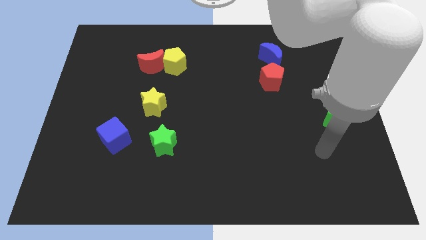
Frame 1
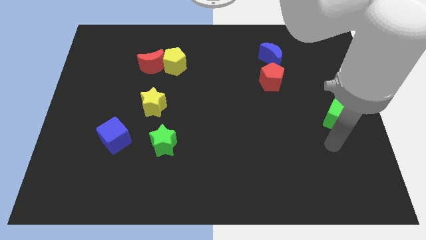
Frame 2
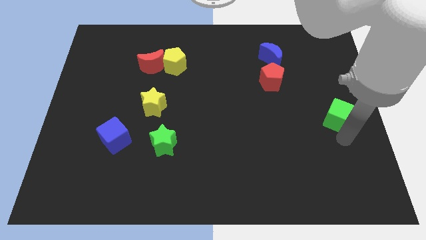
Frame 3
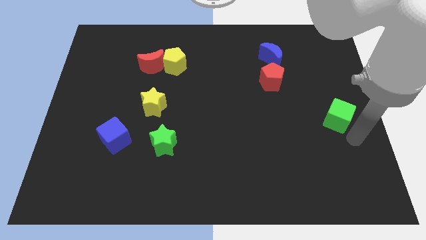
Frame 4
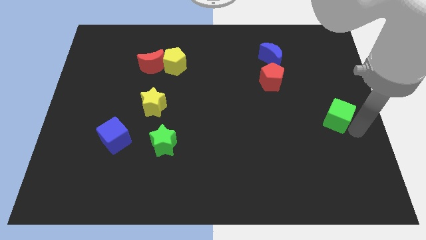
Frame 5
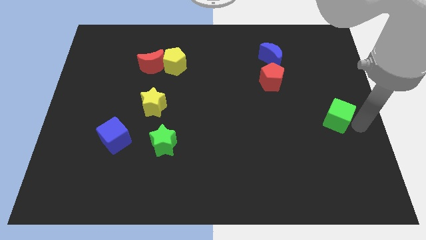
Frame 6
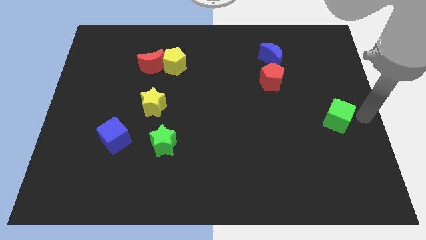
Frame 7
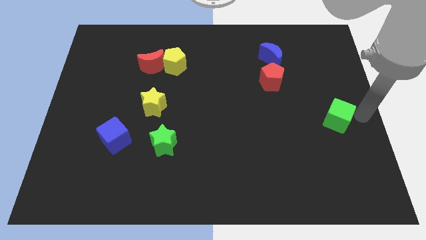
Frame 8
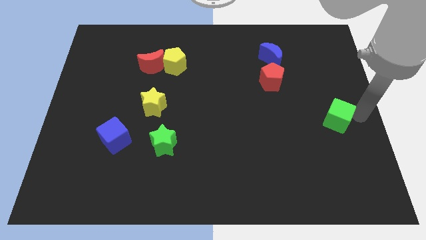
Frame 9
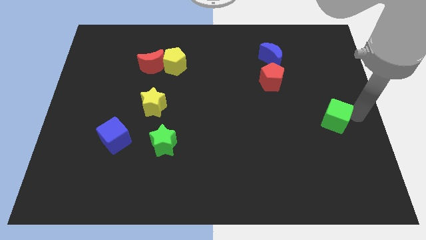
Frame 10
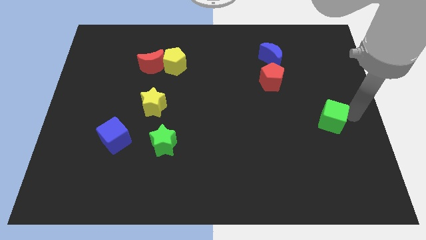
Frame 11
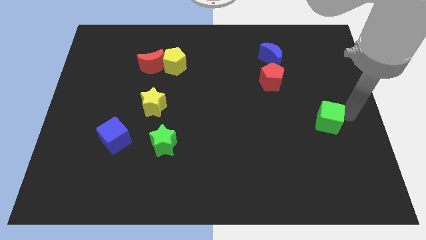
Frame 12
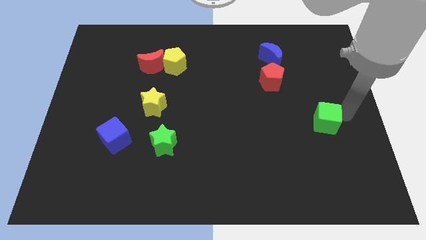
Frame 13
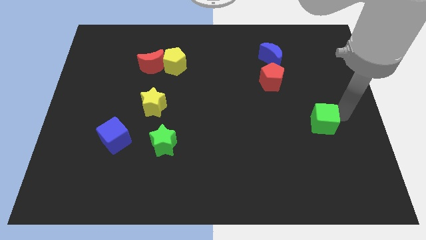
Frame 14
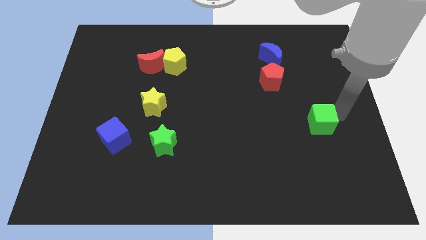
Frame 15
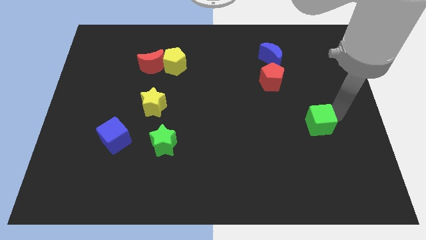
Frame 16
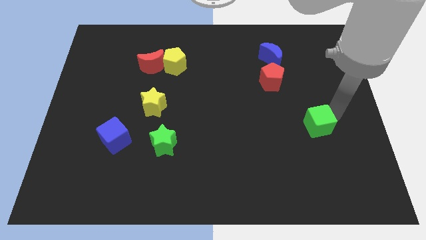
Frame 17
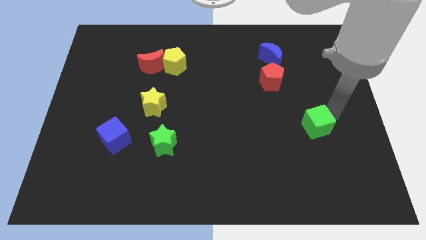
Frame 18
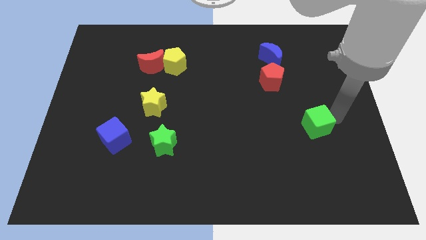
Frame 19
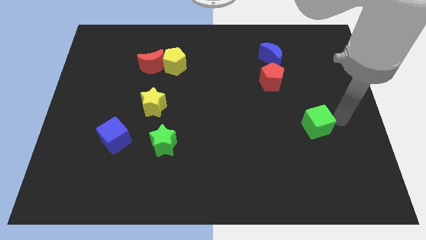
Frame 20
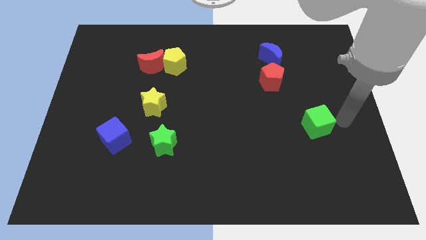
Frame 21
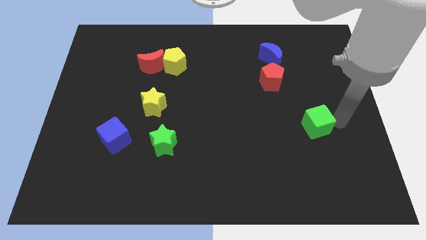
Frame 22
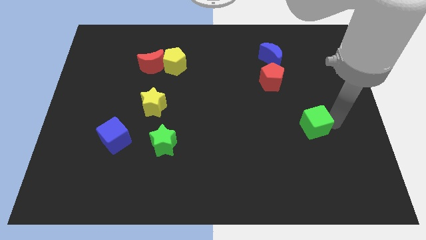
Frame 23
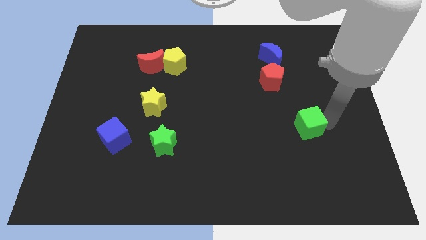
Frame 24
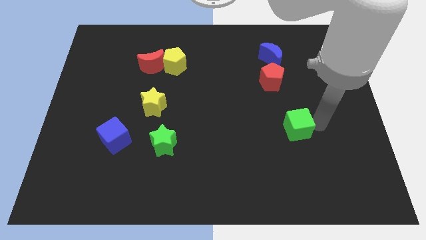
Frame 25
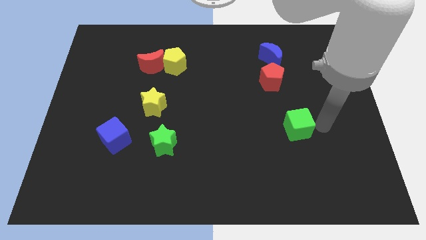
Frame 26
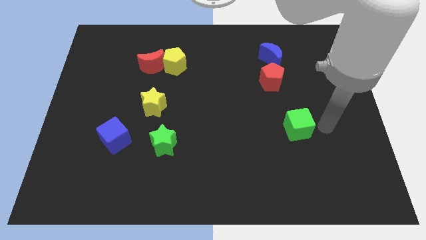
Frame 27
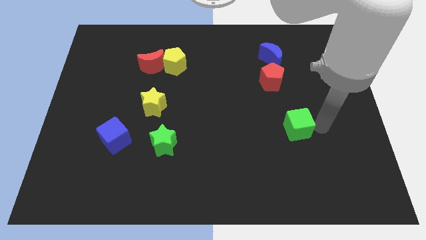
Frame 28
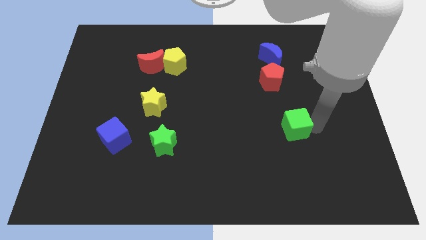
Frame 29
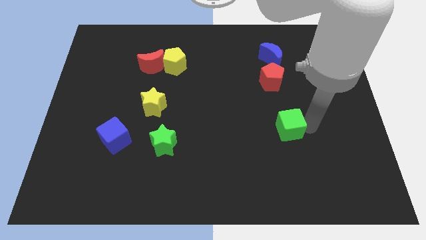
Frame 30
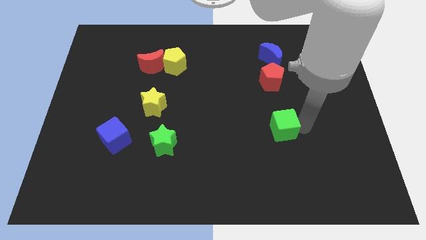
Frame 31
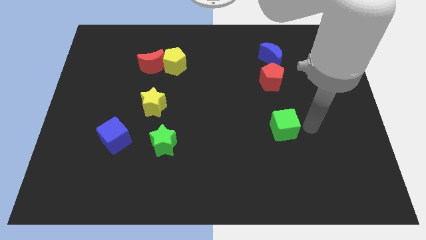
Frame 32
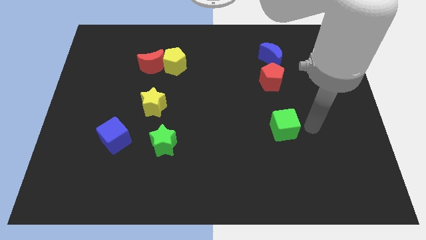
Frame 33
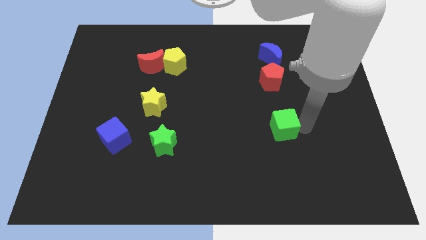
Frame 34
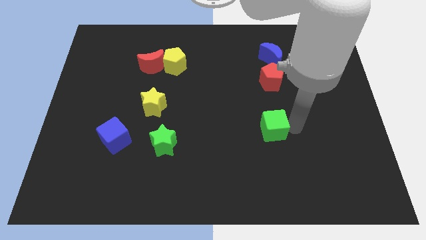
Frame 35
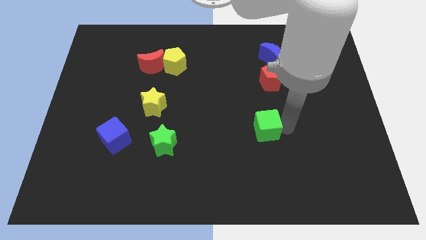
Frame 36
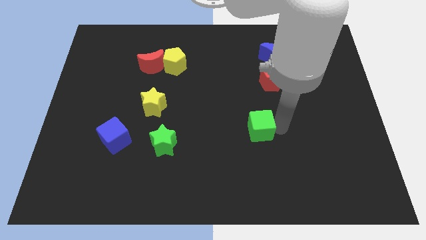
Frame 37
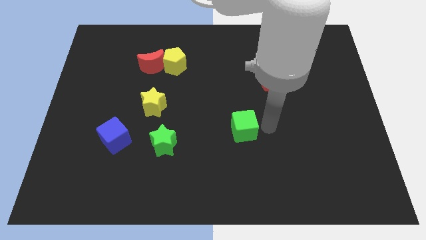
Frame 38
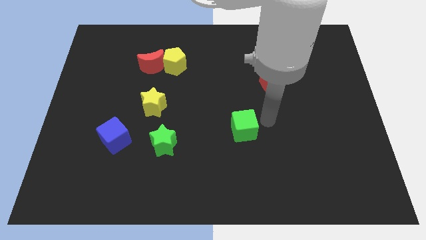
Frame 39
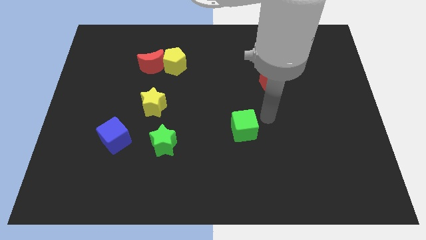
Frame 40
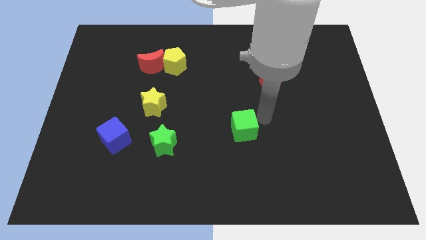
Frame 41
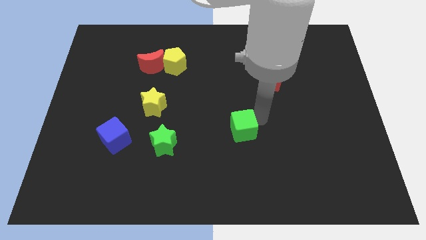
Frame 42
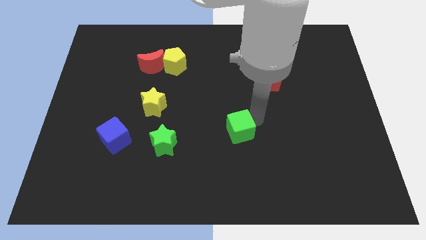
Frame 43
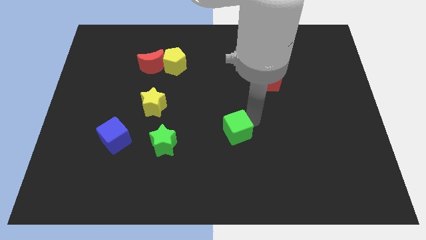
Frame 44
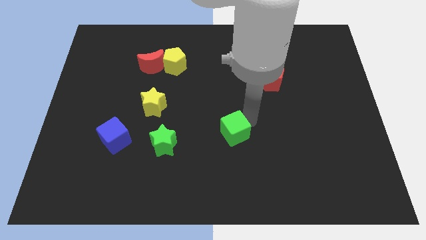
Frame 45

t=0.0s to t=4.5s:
slide the green cube just right of the green star

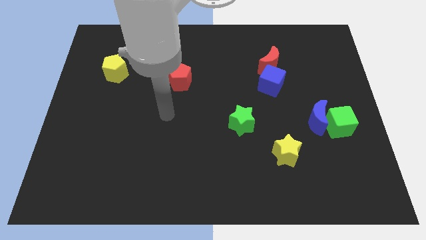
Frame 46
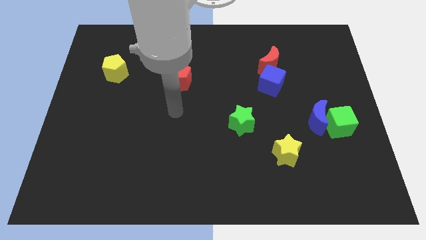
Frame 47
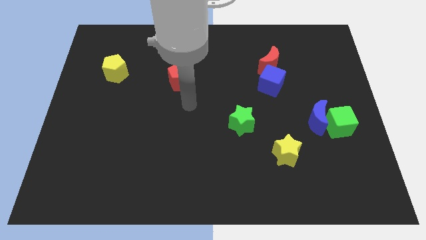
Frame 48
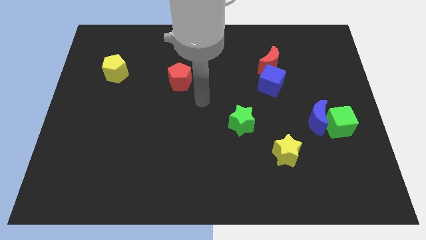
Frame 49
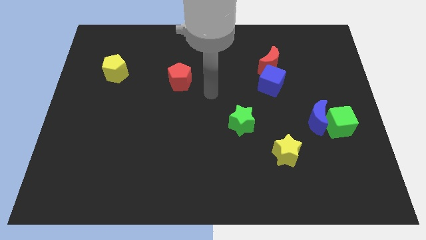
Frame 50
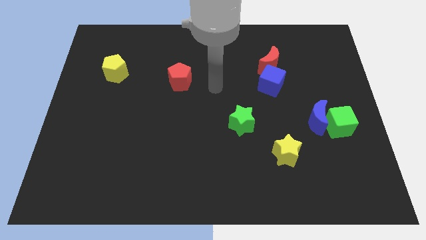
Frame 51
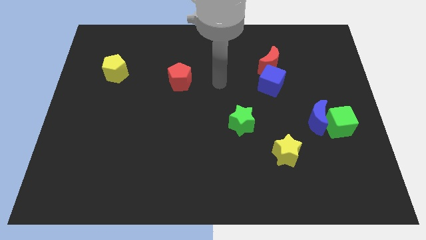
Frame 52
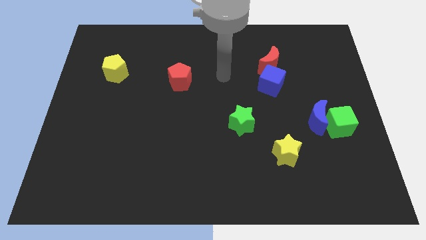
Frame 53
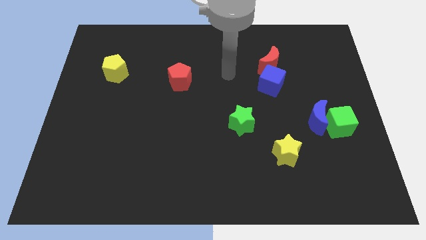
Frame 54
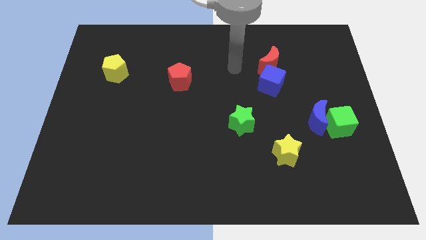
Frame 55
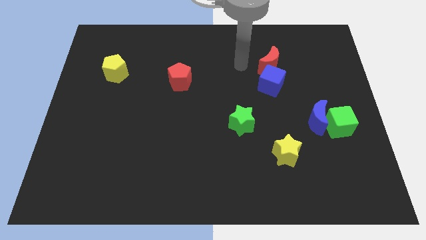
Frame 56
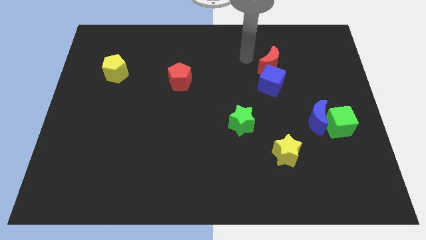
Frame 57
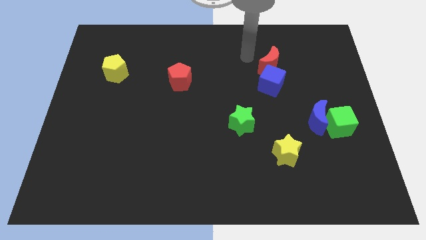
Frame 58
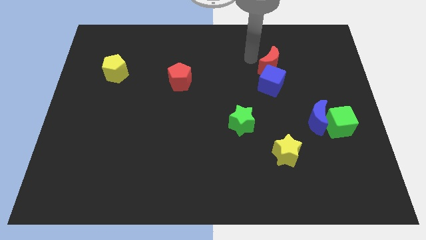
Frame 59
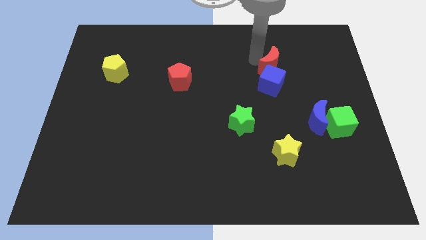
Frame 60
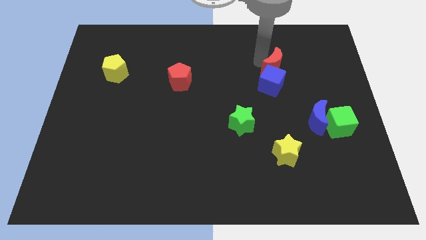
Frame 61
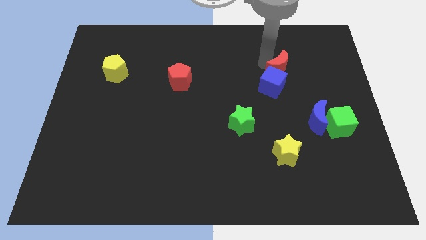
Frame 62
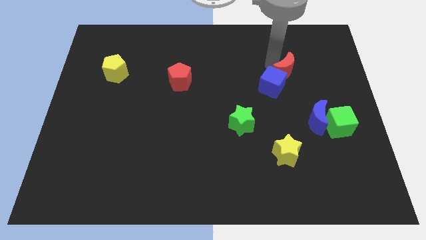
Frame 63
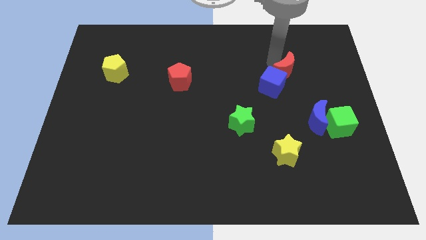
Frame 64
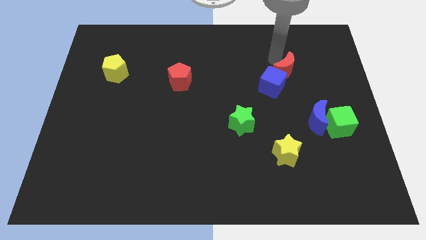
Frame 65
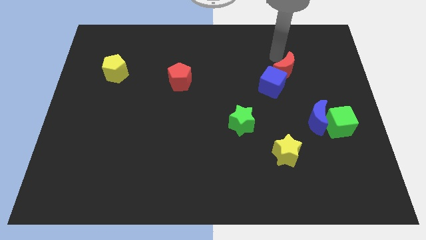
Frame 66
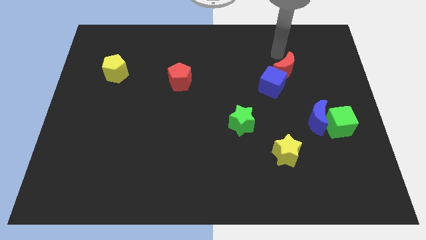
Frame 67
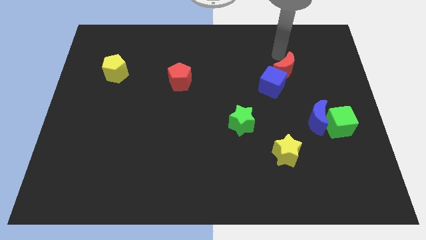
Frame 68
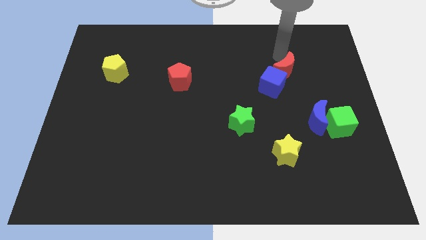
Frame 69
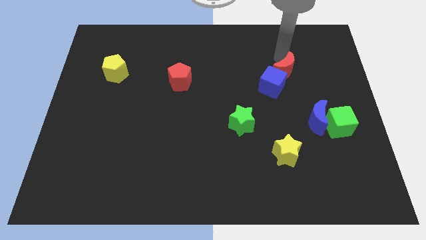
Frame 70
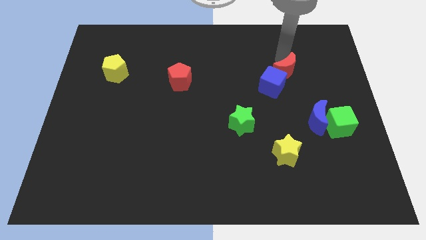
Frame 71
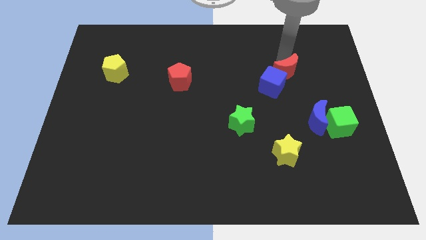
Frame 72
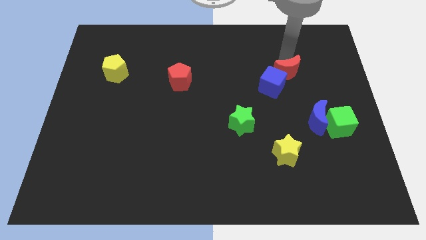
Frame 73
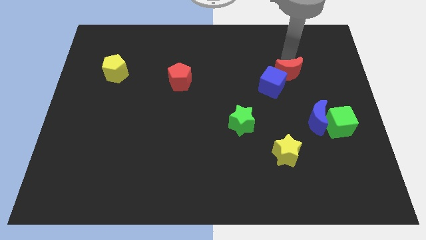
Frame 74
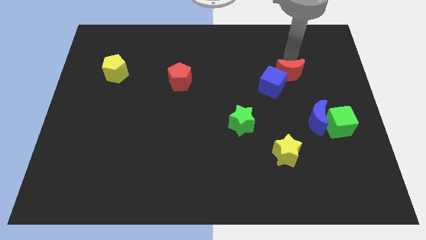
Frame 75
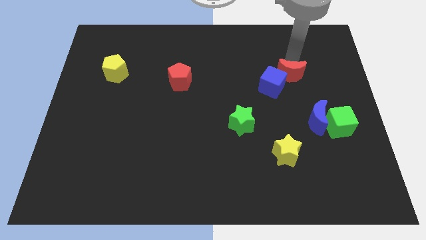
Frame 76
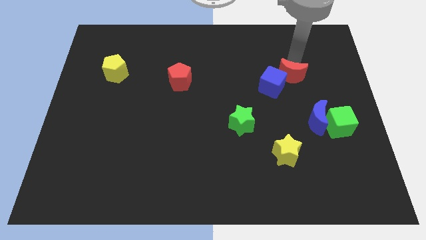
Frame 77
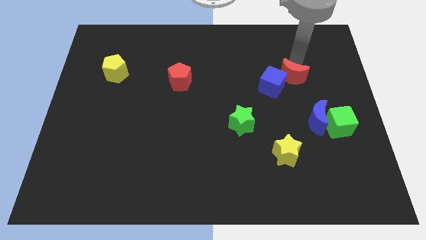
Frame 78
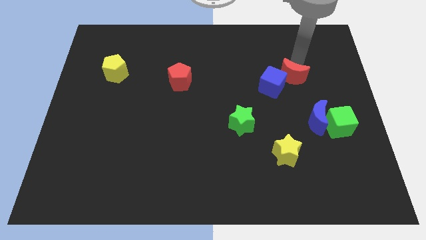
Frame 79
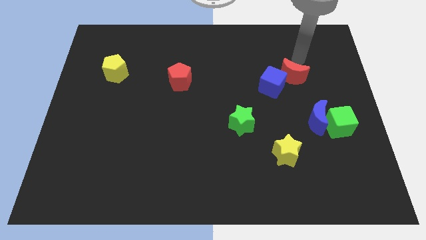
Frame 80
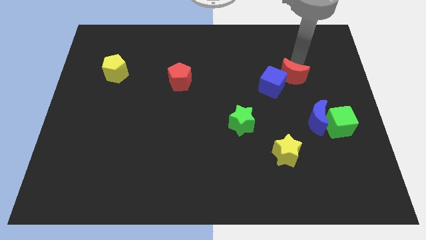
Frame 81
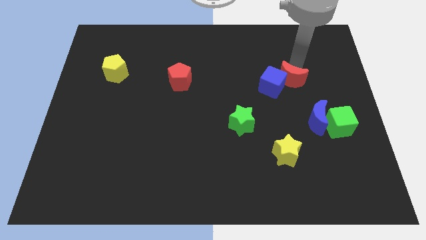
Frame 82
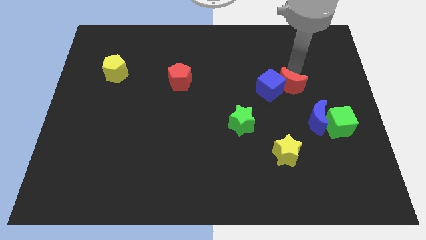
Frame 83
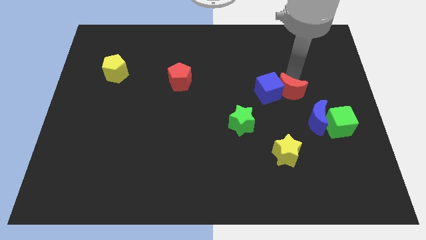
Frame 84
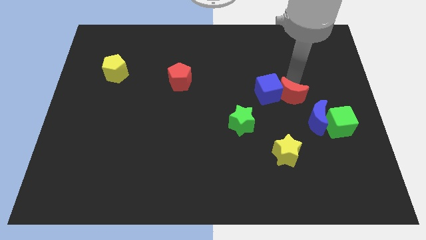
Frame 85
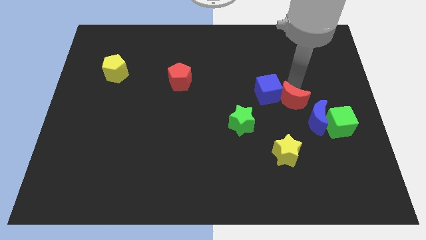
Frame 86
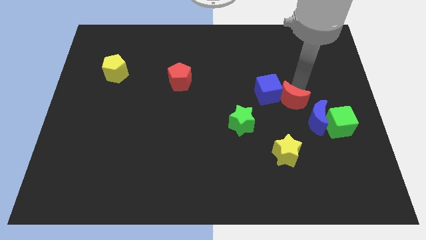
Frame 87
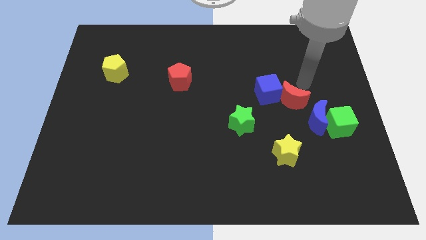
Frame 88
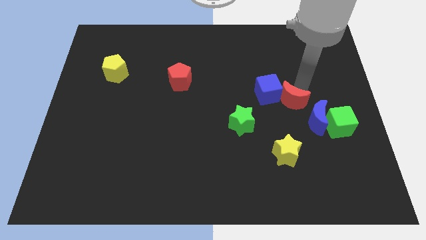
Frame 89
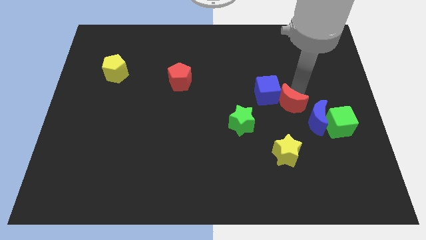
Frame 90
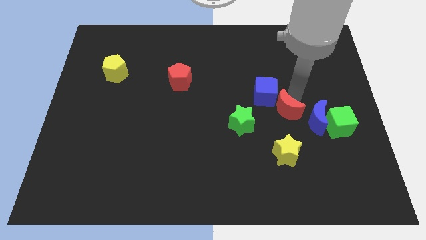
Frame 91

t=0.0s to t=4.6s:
put the red moon to the bottom of the blue cube
